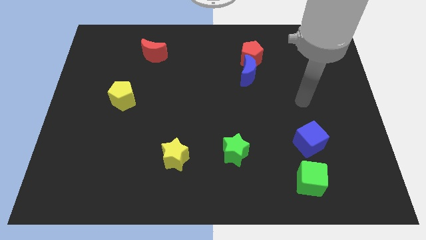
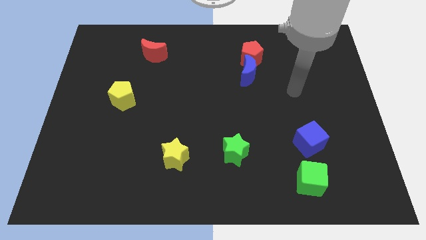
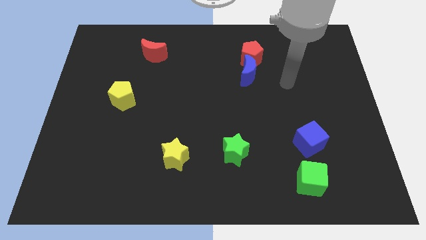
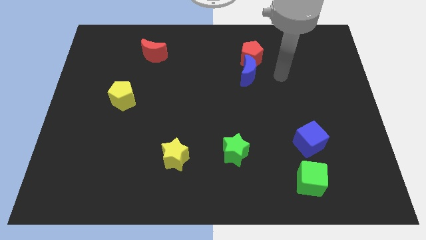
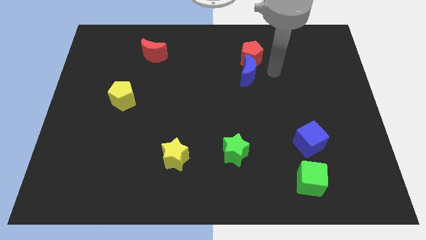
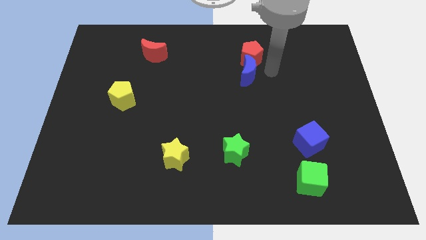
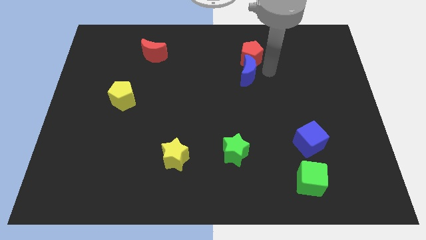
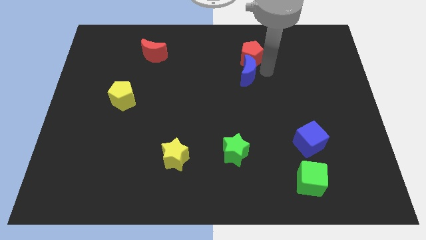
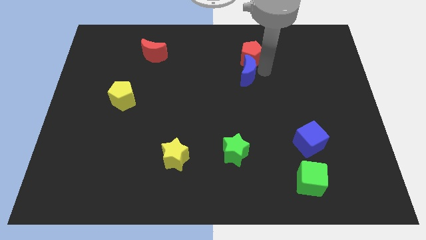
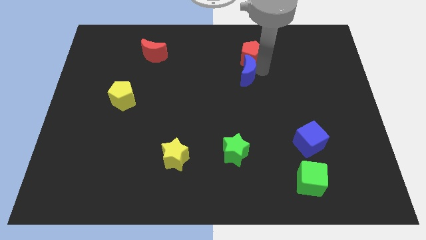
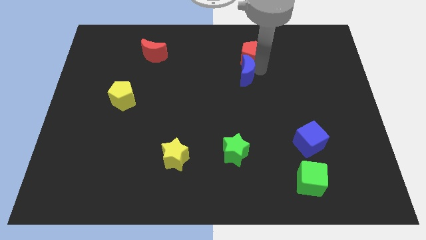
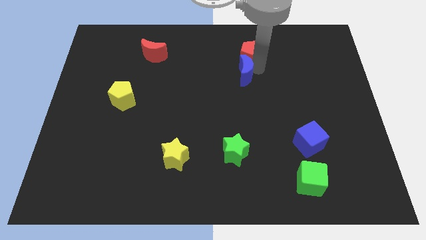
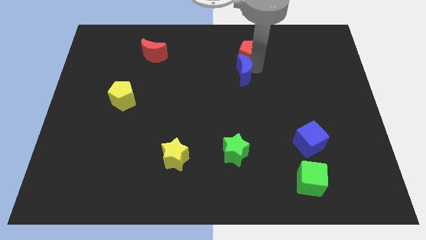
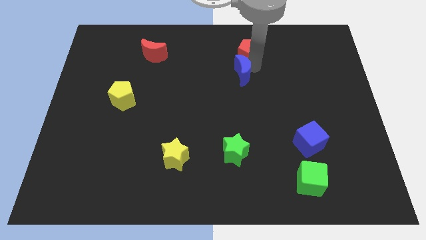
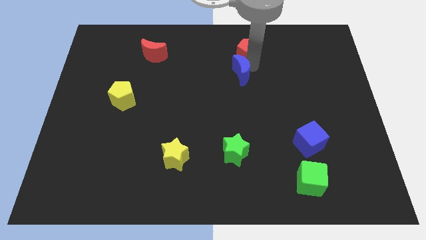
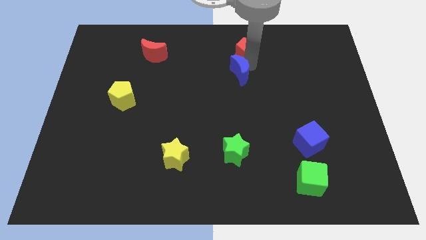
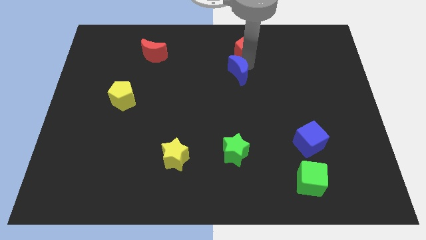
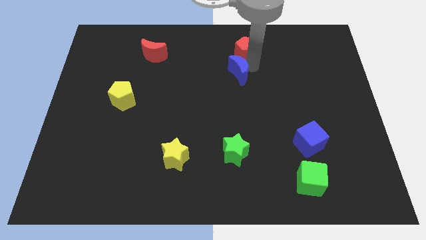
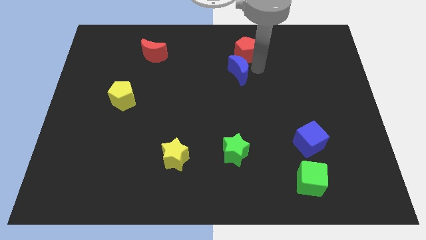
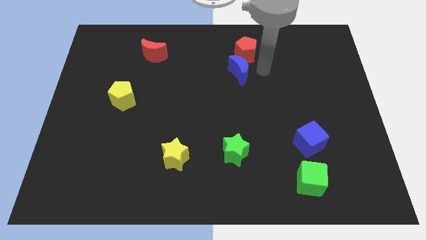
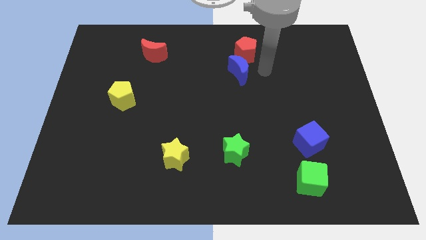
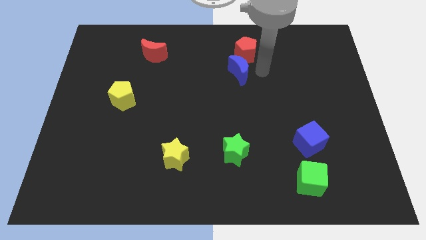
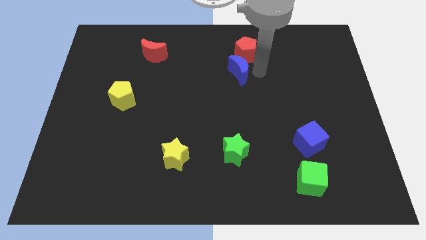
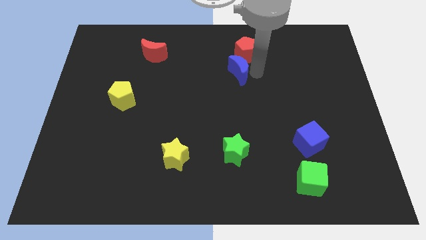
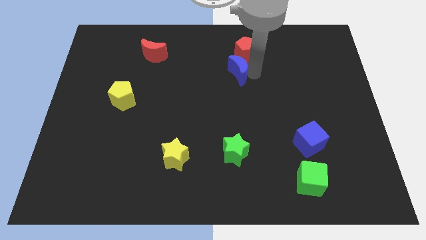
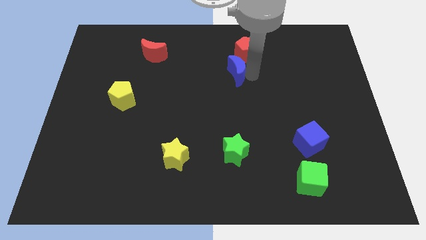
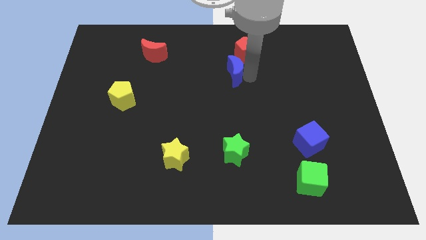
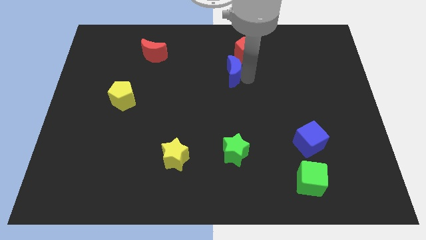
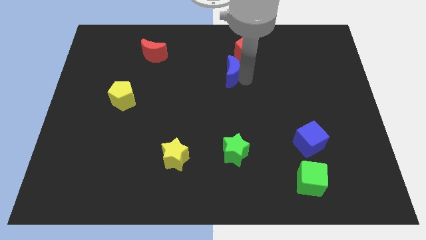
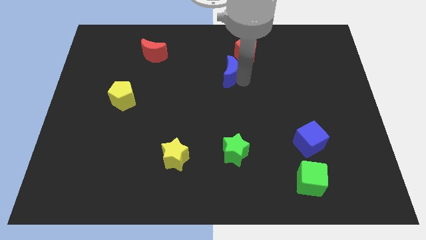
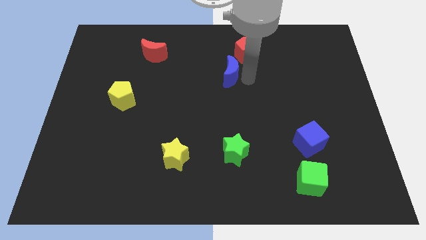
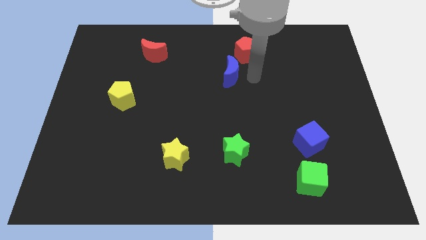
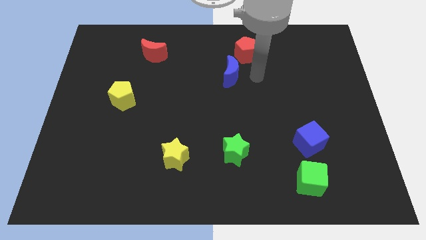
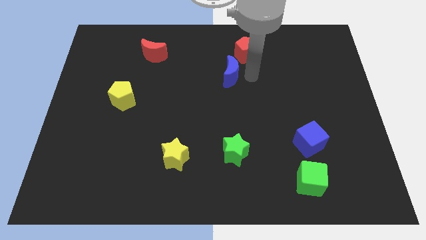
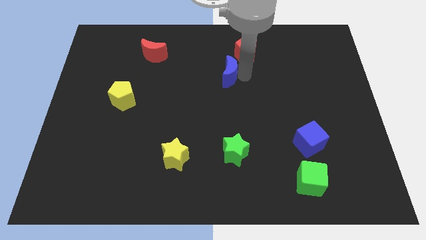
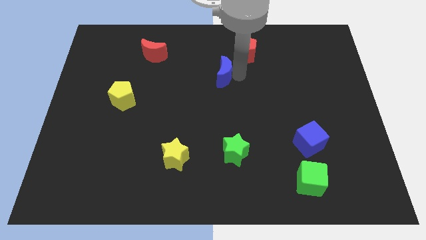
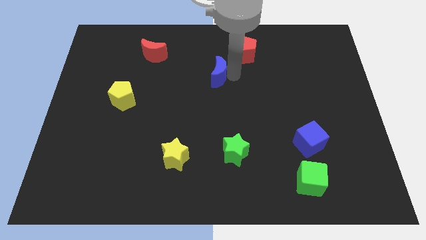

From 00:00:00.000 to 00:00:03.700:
move the blue moon left somewhat

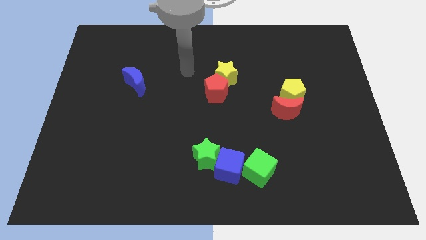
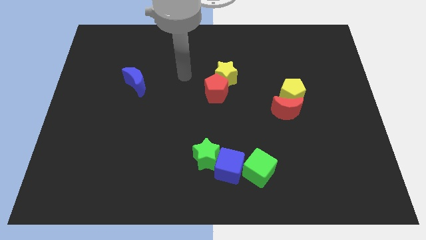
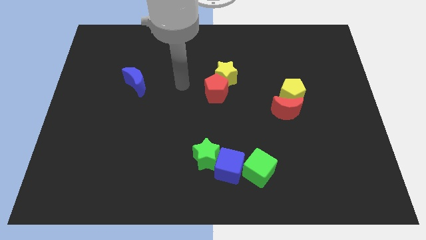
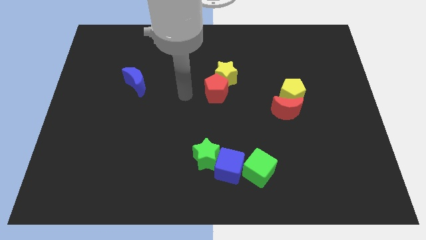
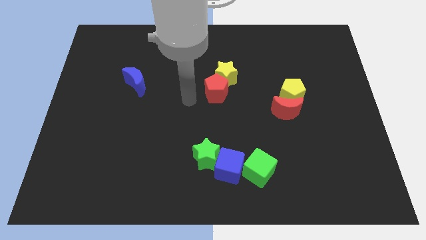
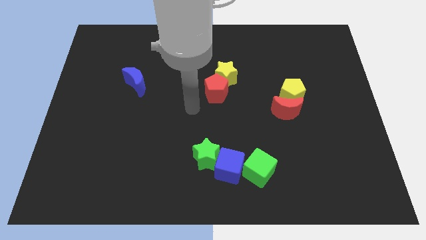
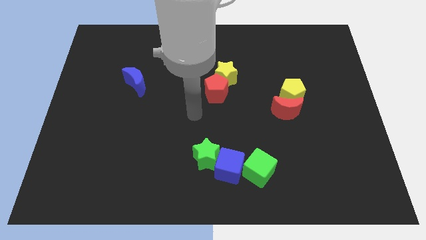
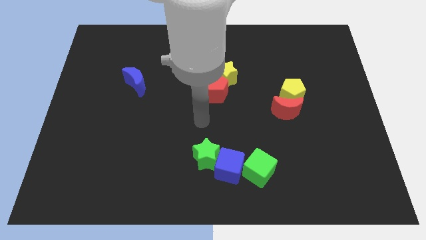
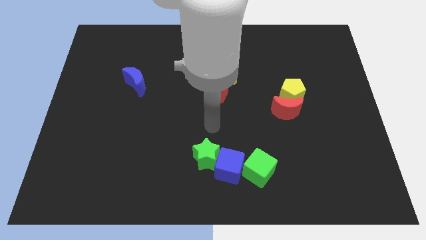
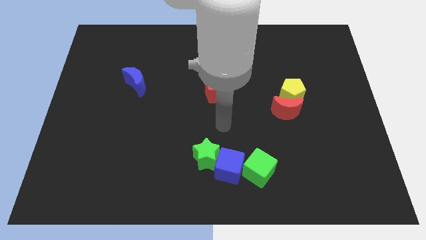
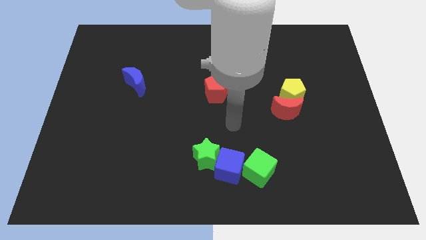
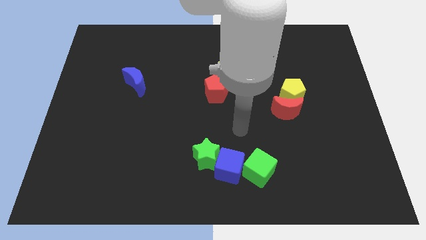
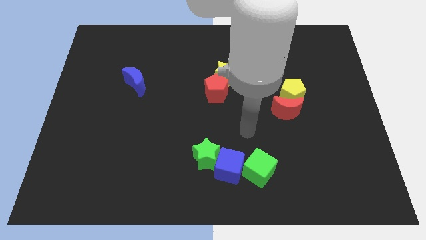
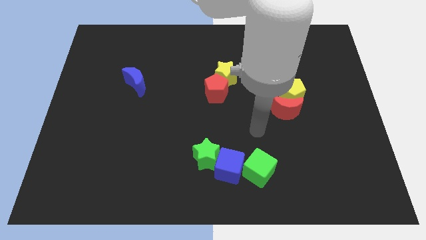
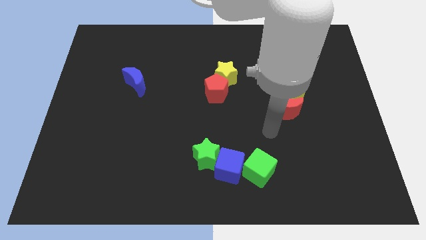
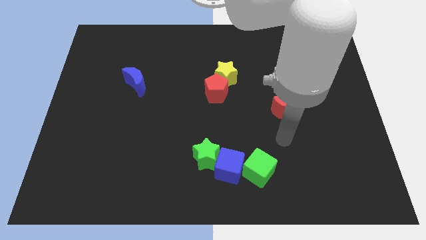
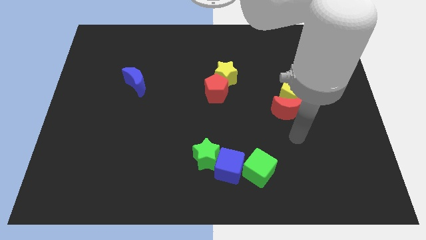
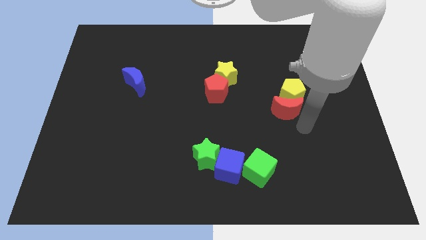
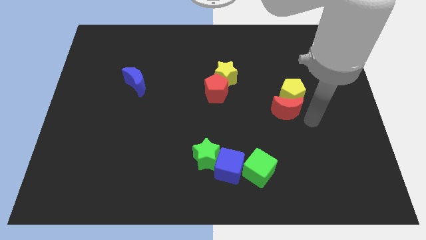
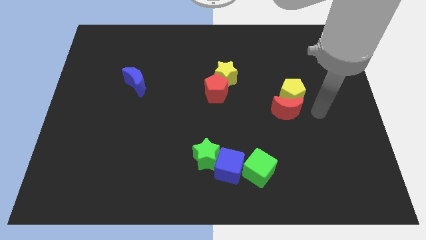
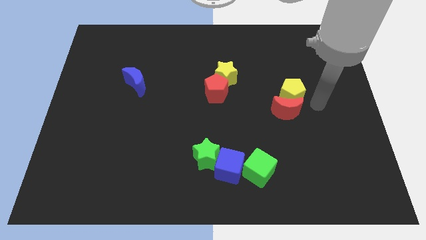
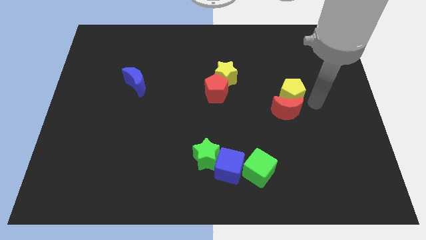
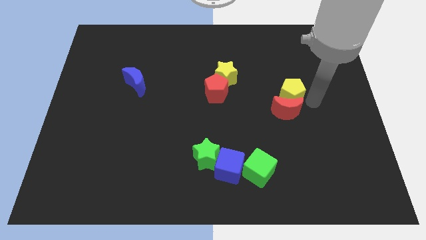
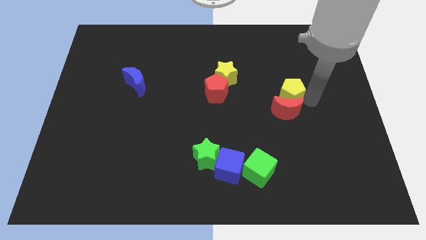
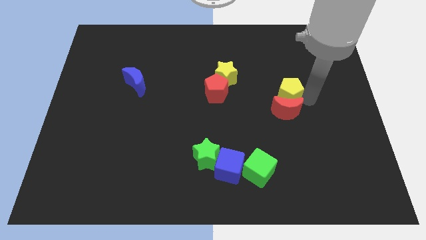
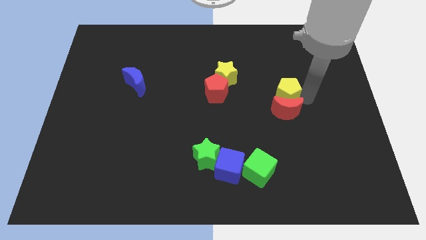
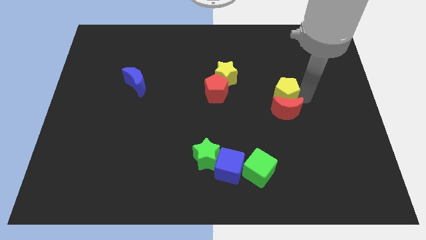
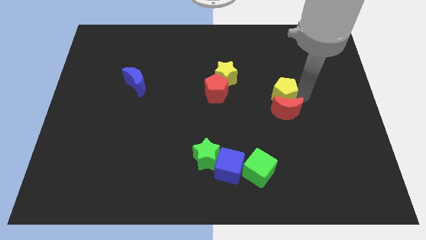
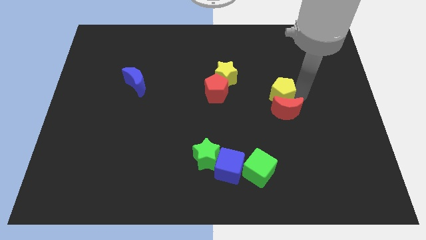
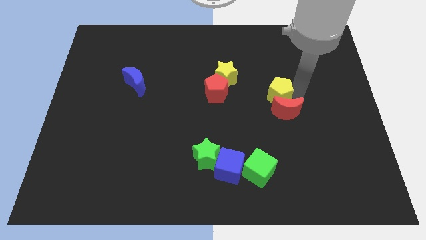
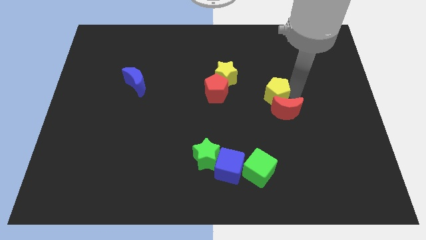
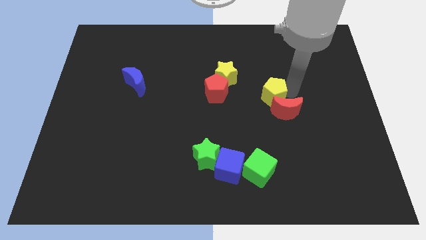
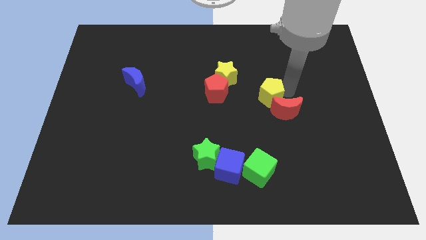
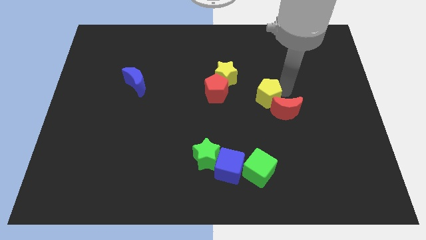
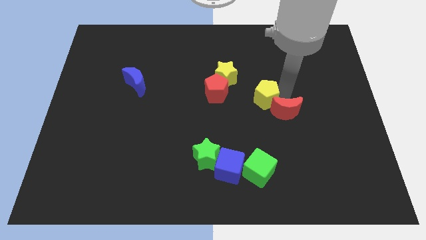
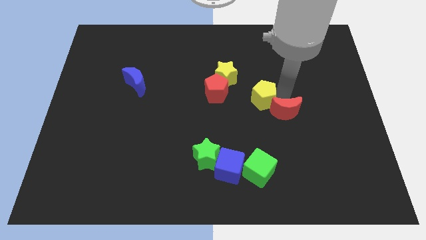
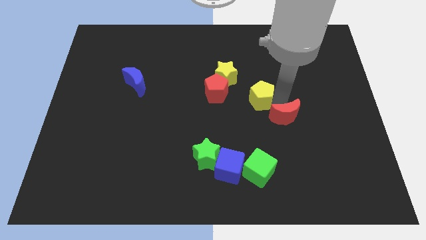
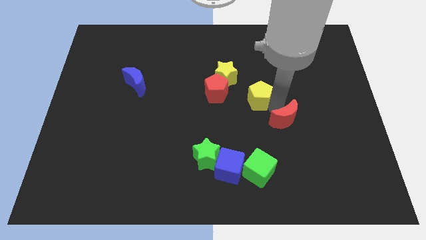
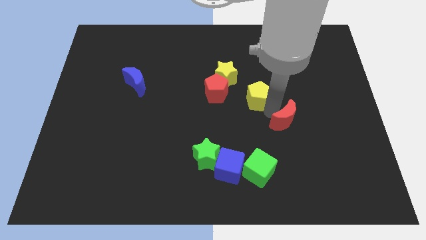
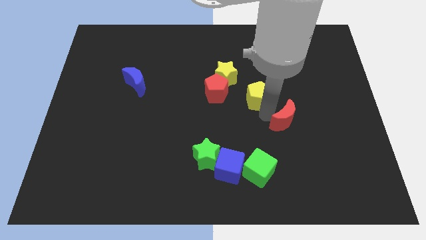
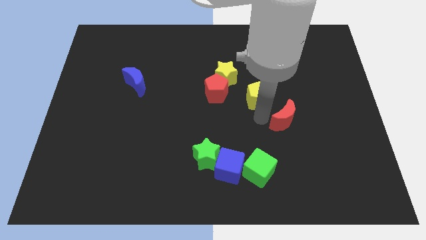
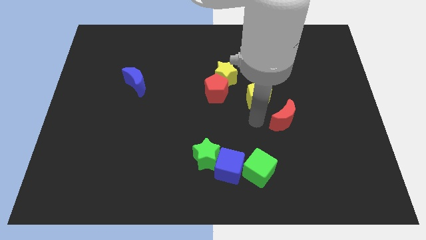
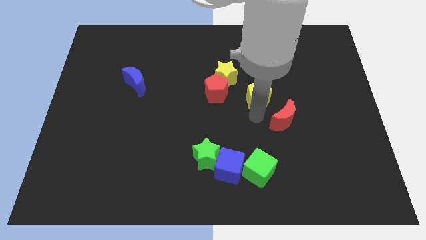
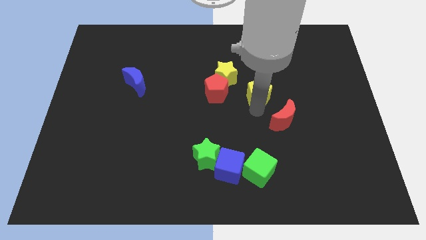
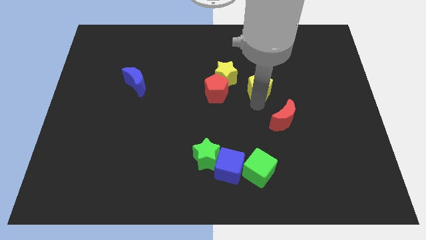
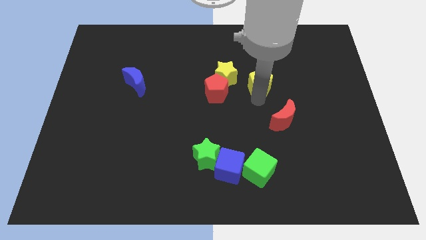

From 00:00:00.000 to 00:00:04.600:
push the yellow pentagon a bit upwards and then to the left
